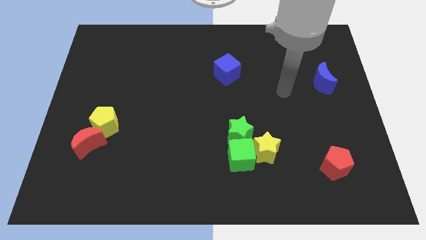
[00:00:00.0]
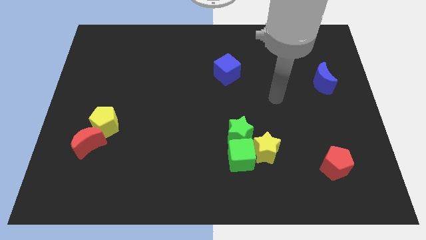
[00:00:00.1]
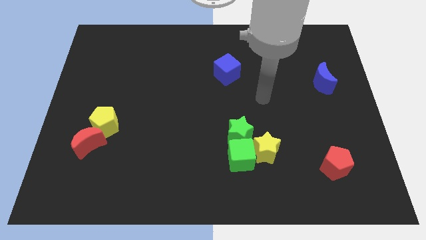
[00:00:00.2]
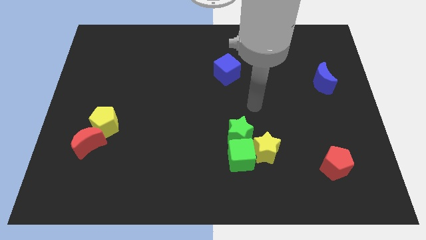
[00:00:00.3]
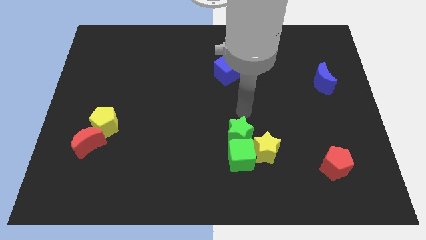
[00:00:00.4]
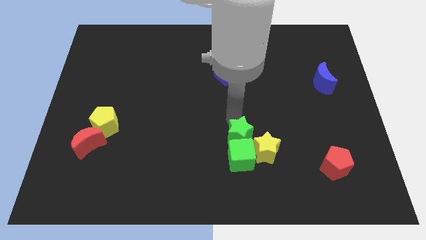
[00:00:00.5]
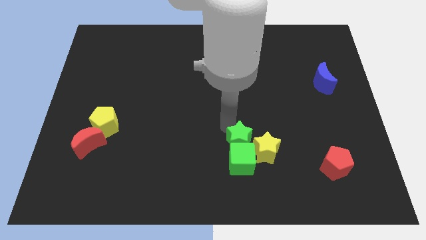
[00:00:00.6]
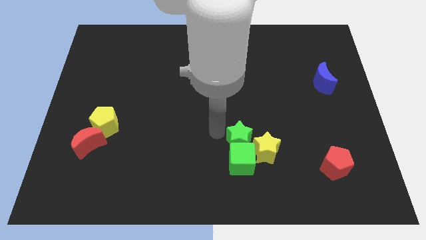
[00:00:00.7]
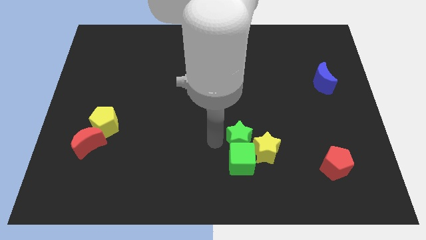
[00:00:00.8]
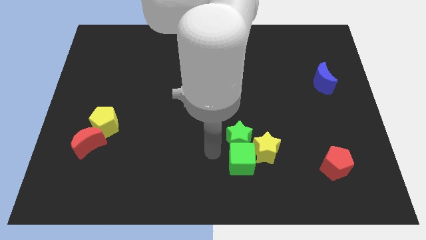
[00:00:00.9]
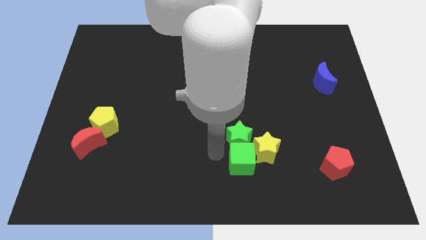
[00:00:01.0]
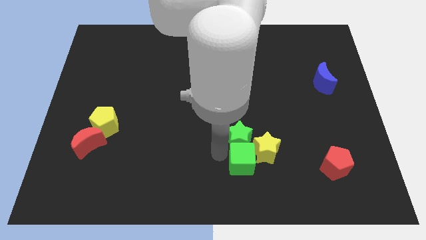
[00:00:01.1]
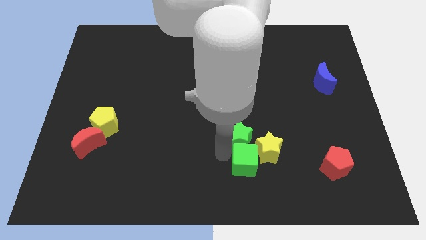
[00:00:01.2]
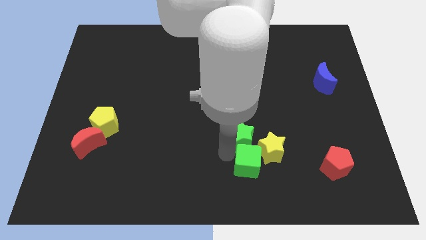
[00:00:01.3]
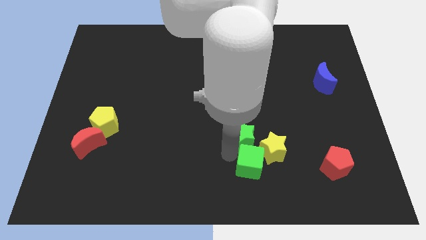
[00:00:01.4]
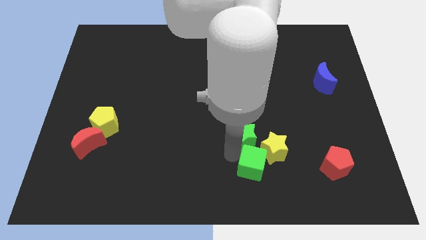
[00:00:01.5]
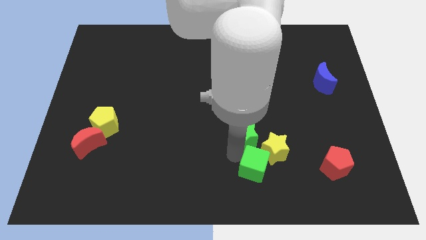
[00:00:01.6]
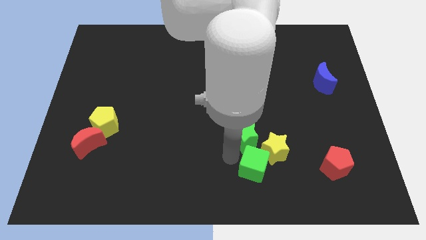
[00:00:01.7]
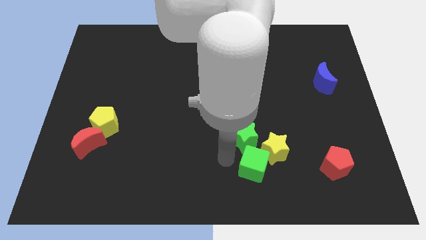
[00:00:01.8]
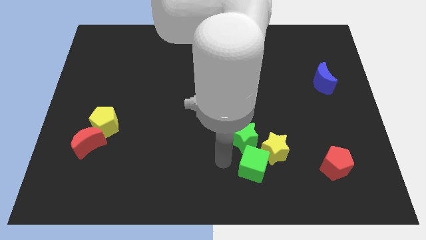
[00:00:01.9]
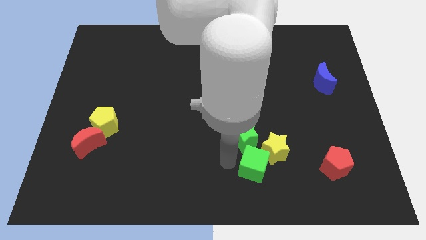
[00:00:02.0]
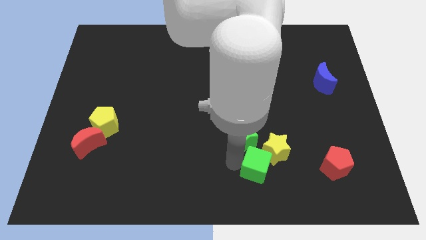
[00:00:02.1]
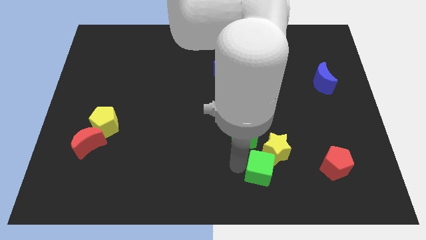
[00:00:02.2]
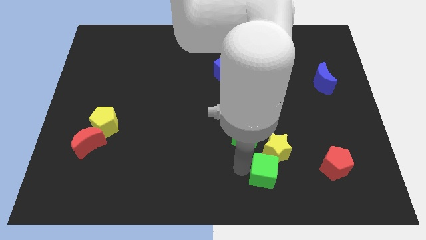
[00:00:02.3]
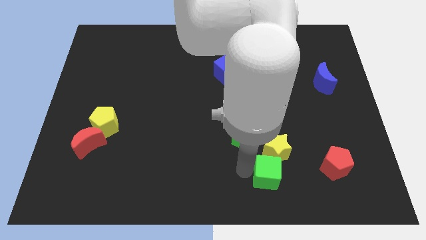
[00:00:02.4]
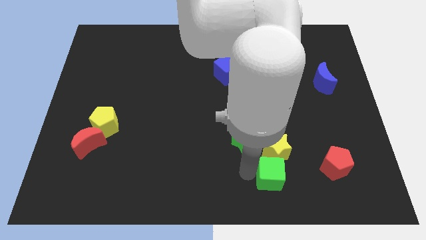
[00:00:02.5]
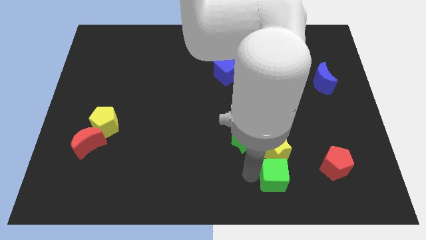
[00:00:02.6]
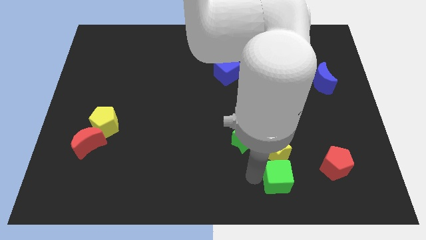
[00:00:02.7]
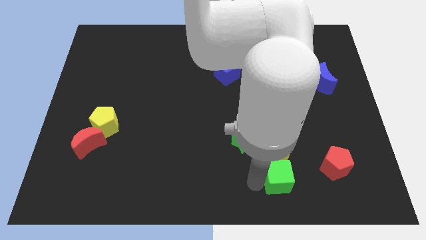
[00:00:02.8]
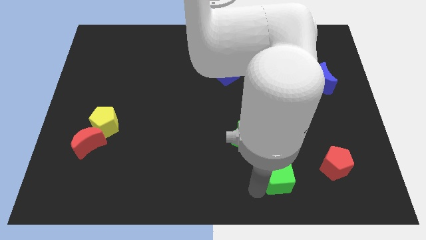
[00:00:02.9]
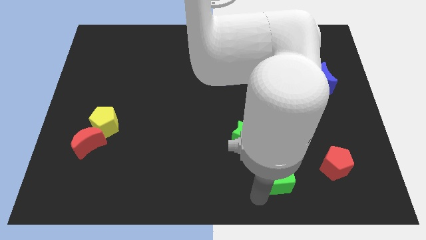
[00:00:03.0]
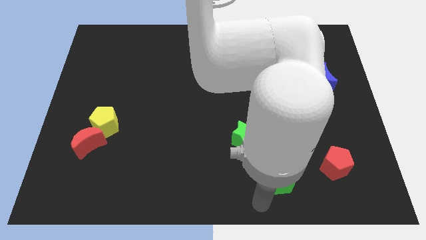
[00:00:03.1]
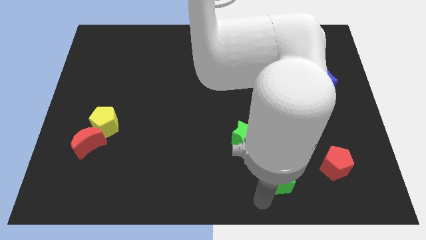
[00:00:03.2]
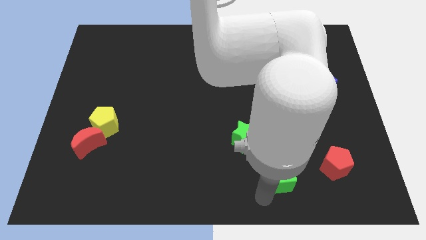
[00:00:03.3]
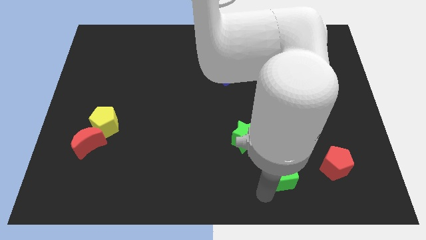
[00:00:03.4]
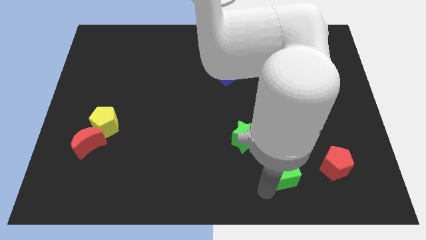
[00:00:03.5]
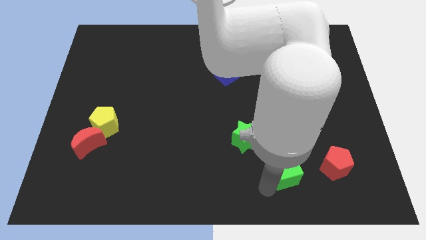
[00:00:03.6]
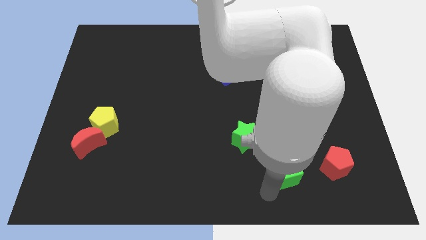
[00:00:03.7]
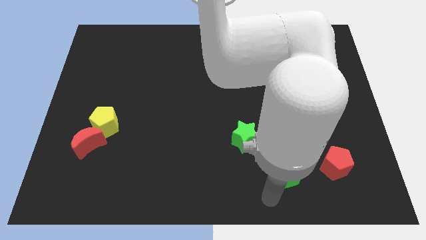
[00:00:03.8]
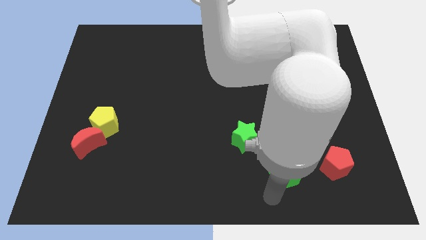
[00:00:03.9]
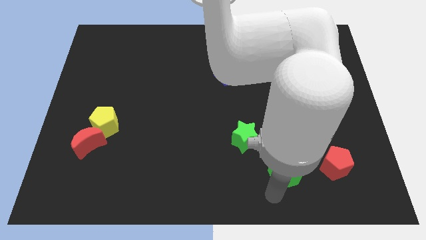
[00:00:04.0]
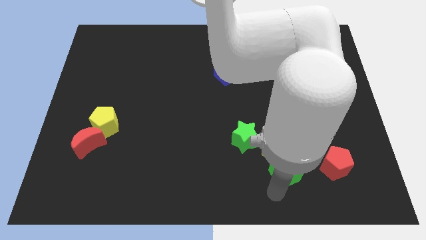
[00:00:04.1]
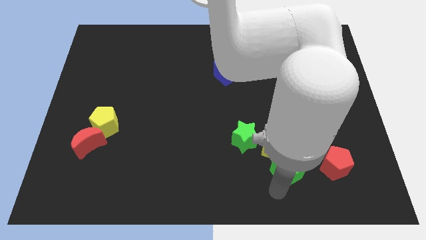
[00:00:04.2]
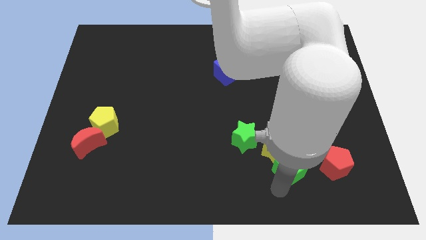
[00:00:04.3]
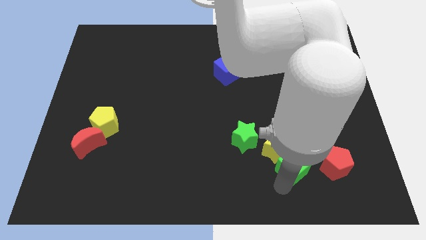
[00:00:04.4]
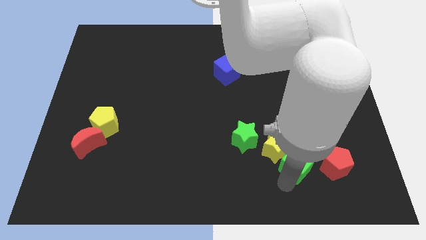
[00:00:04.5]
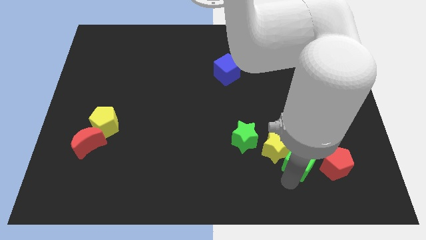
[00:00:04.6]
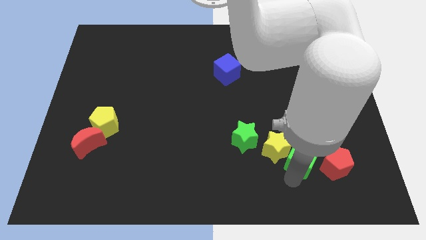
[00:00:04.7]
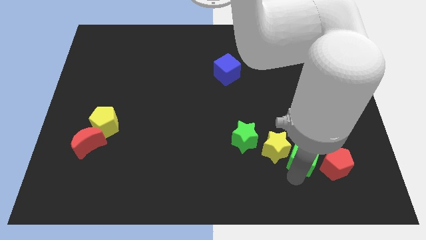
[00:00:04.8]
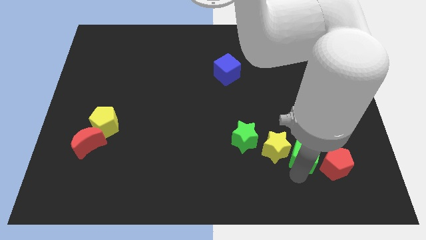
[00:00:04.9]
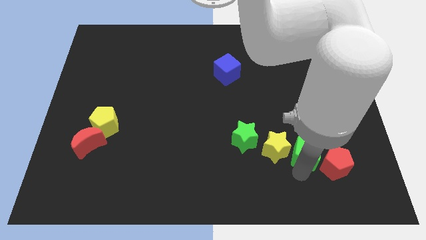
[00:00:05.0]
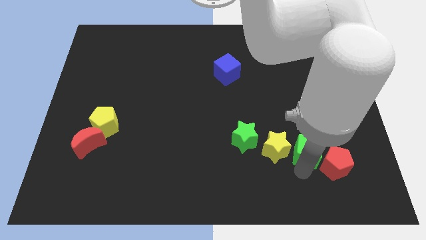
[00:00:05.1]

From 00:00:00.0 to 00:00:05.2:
push the green cube a little bit diagonally upwards and to the right

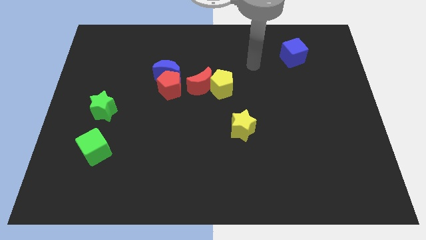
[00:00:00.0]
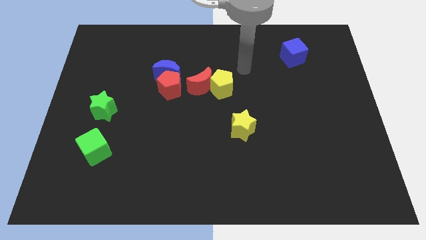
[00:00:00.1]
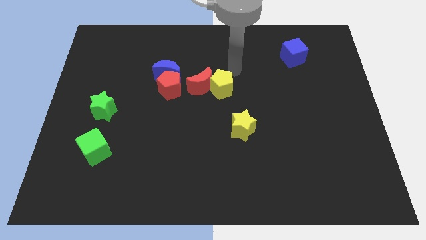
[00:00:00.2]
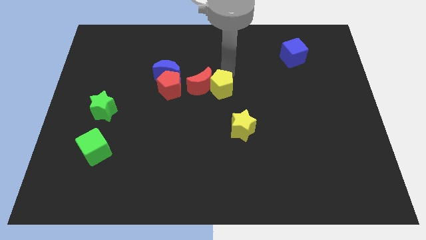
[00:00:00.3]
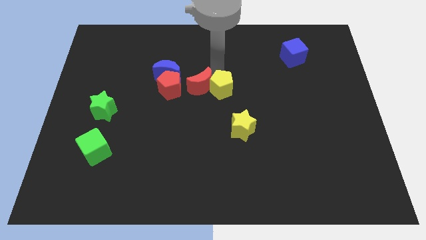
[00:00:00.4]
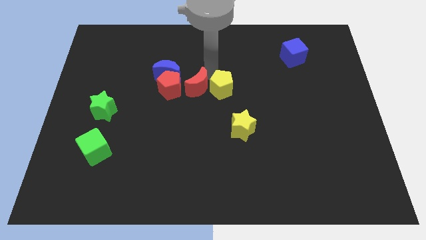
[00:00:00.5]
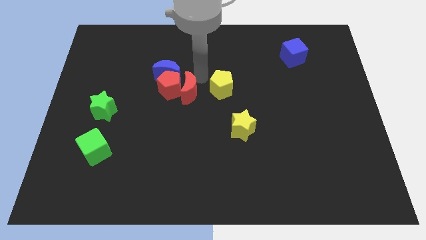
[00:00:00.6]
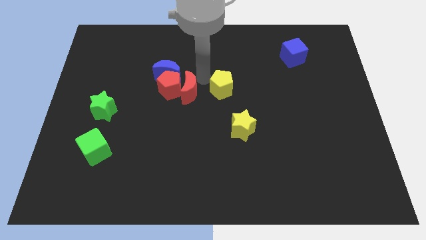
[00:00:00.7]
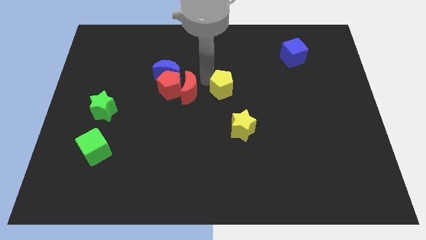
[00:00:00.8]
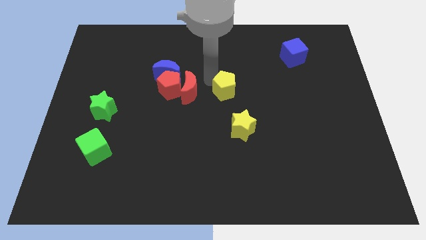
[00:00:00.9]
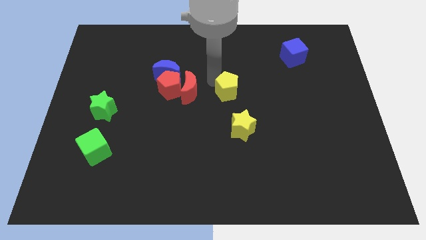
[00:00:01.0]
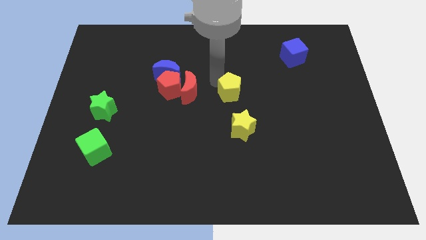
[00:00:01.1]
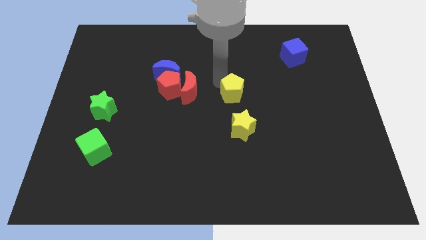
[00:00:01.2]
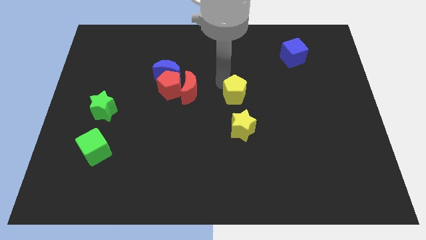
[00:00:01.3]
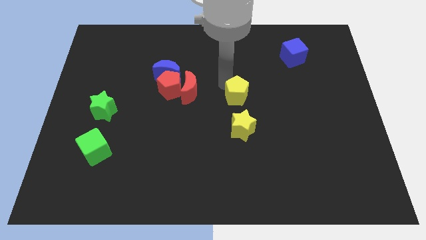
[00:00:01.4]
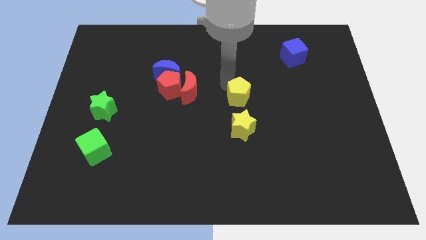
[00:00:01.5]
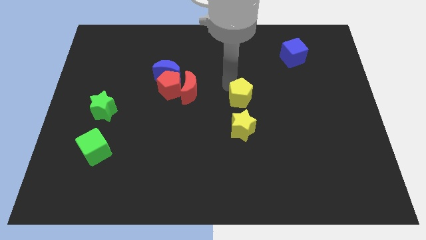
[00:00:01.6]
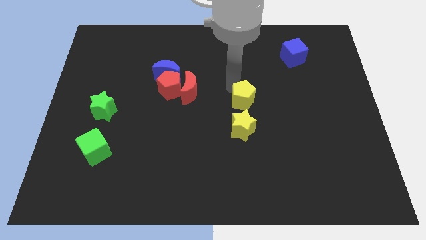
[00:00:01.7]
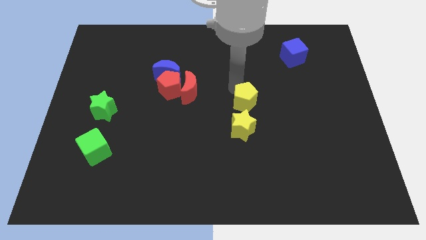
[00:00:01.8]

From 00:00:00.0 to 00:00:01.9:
move the yellow pentagon a little bit downwards and right diagonally

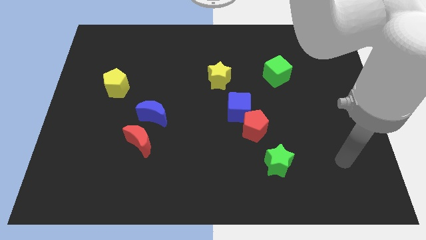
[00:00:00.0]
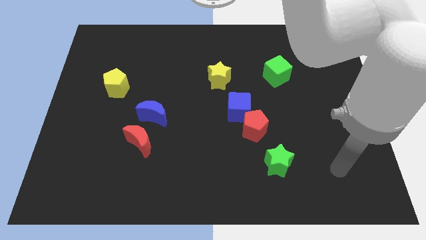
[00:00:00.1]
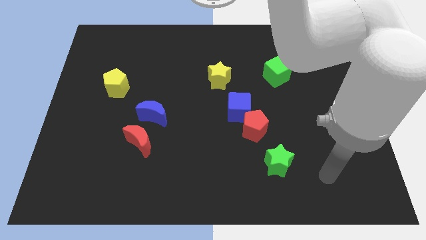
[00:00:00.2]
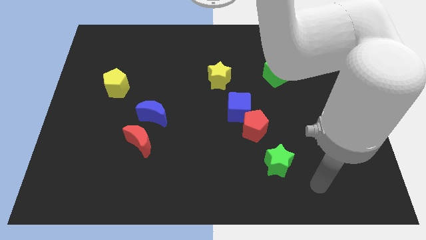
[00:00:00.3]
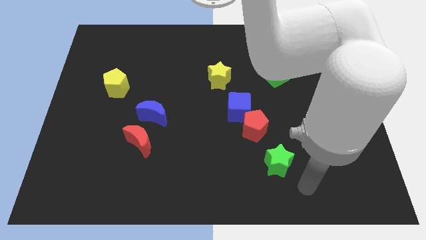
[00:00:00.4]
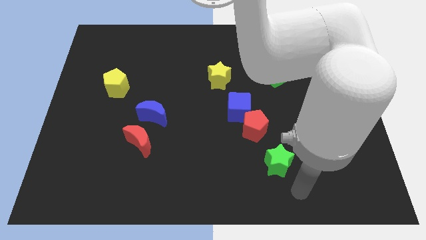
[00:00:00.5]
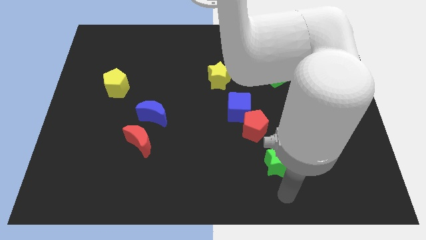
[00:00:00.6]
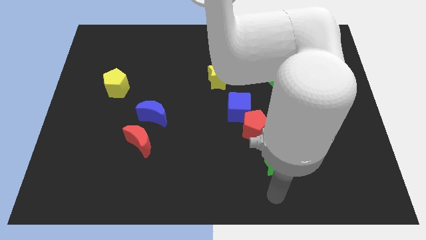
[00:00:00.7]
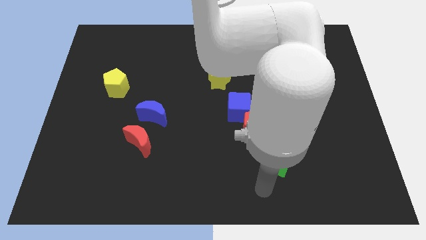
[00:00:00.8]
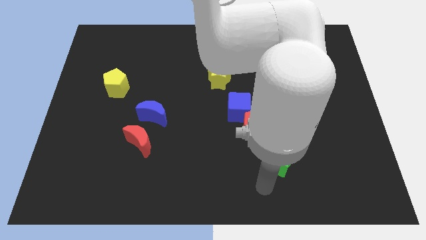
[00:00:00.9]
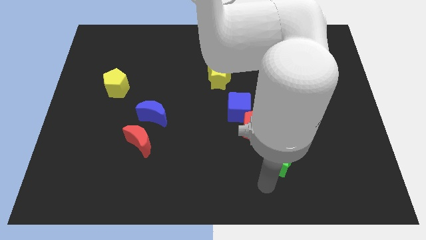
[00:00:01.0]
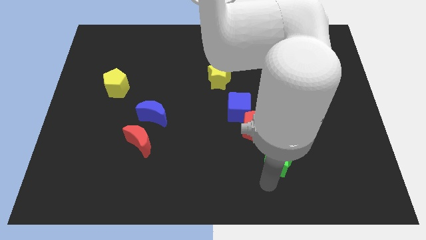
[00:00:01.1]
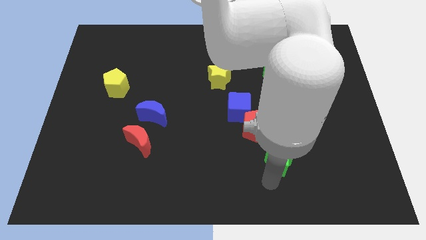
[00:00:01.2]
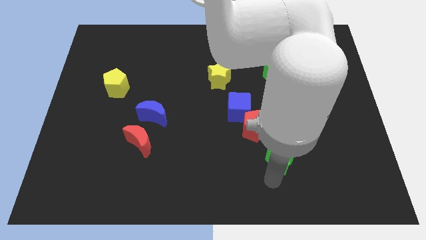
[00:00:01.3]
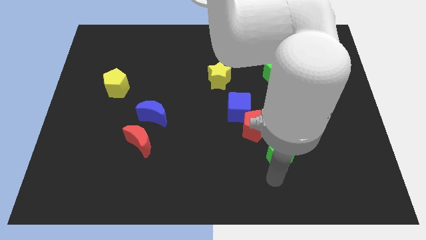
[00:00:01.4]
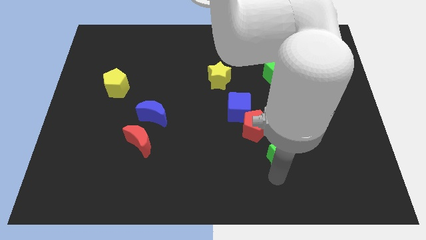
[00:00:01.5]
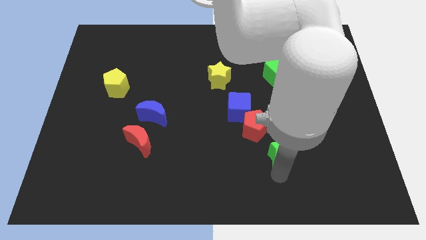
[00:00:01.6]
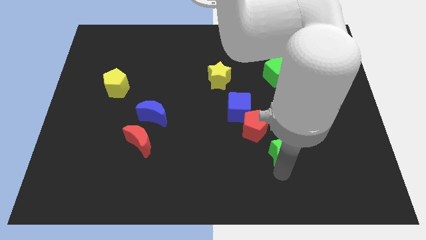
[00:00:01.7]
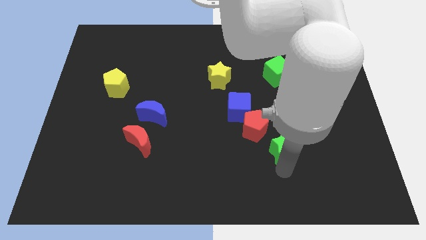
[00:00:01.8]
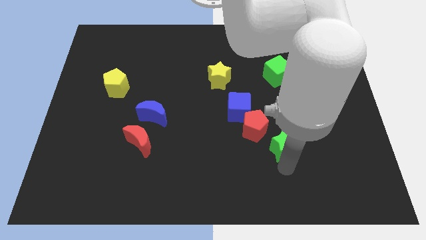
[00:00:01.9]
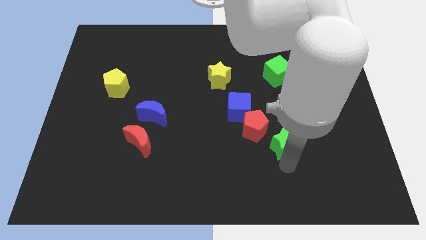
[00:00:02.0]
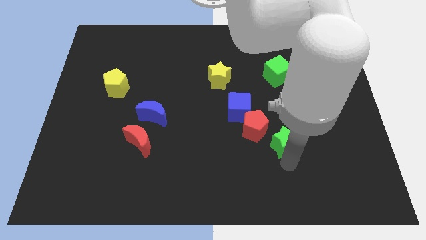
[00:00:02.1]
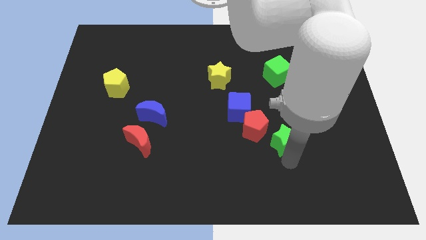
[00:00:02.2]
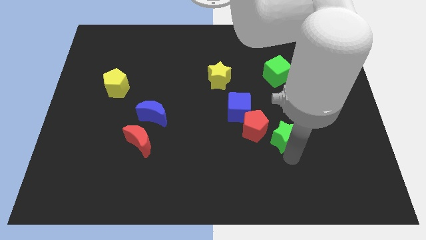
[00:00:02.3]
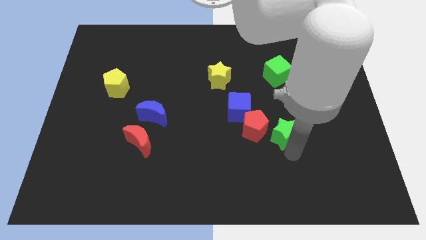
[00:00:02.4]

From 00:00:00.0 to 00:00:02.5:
push the green star up a little
